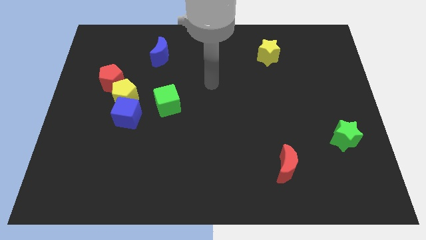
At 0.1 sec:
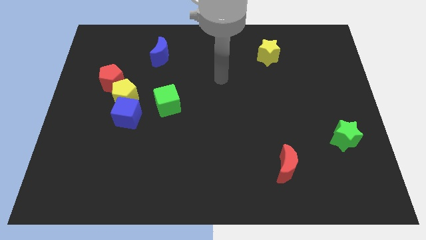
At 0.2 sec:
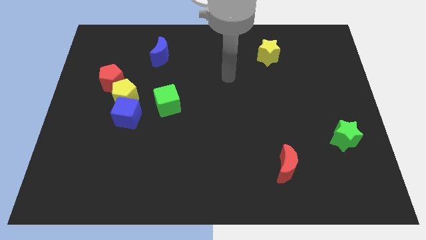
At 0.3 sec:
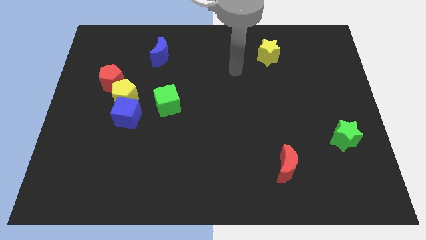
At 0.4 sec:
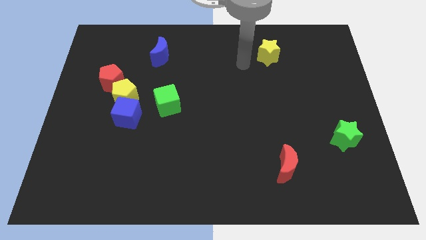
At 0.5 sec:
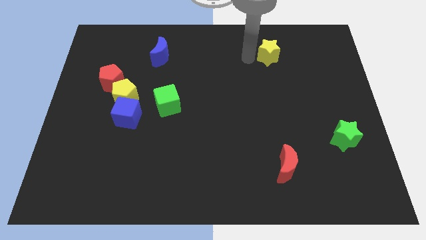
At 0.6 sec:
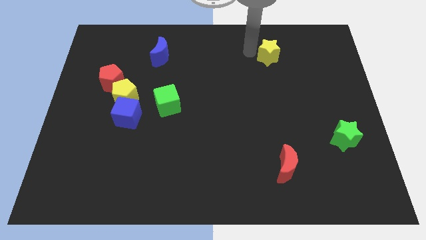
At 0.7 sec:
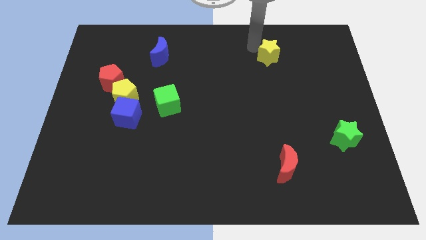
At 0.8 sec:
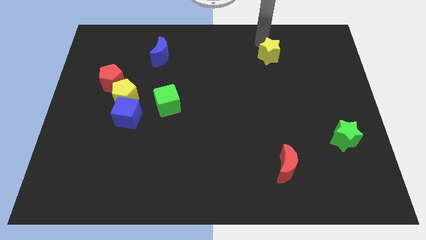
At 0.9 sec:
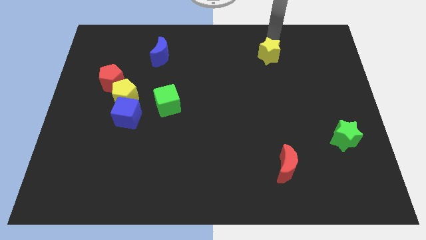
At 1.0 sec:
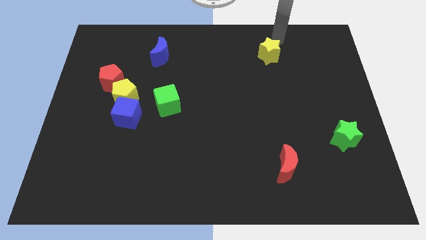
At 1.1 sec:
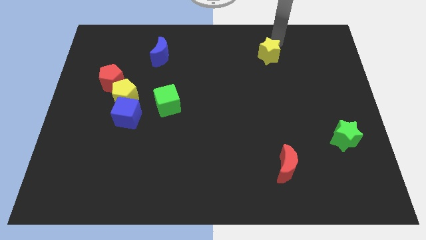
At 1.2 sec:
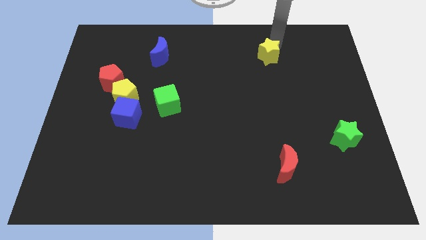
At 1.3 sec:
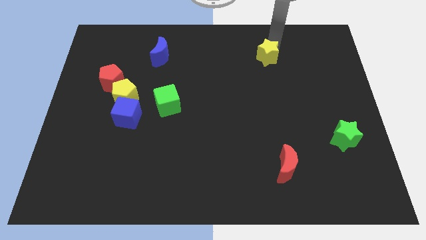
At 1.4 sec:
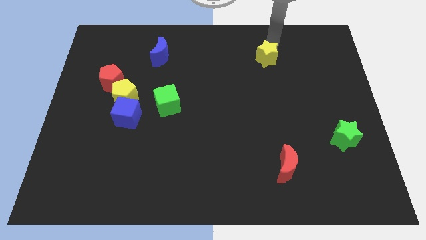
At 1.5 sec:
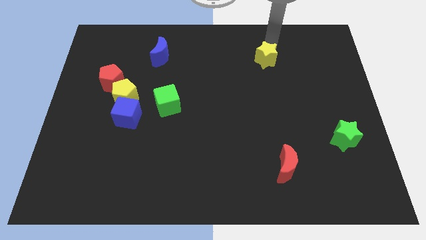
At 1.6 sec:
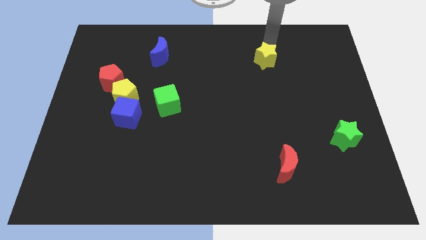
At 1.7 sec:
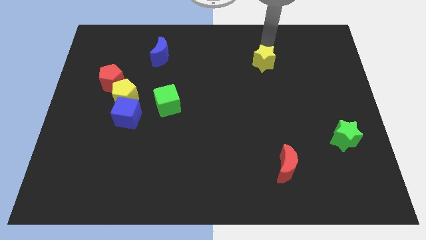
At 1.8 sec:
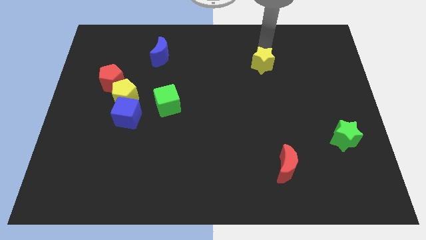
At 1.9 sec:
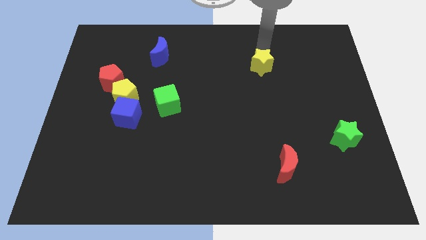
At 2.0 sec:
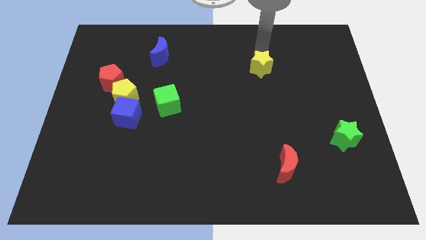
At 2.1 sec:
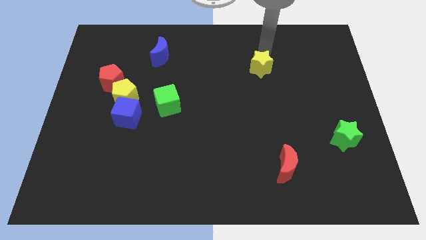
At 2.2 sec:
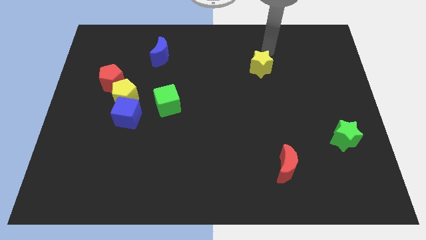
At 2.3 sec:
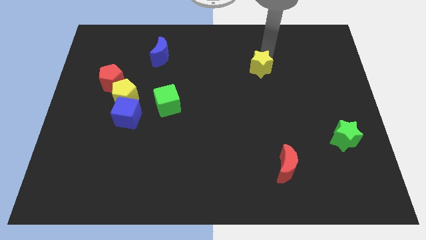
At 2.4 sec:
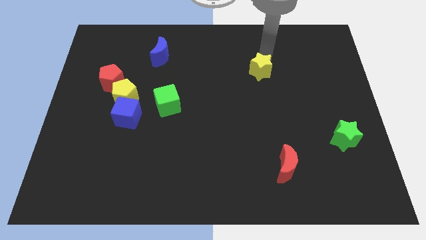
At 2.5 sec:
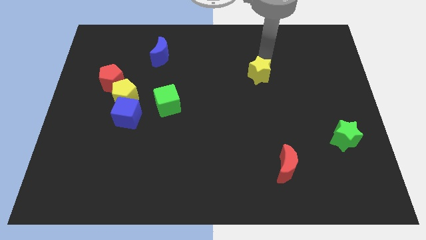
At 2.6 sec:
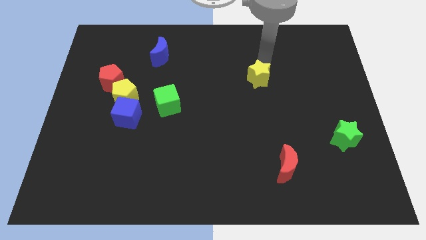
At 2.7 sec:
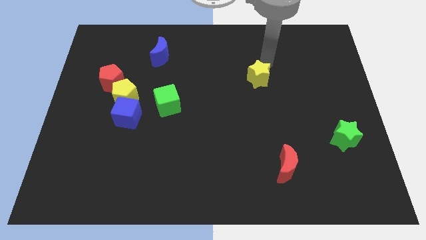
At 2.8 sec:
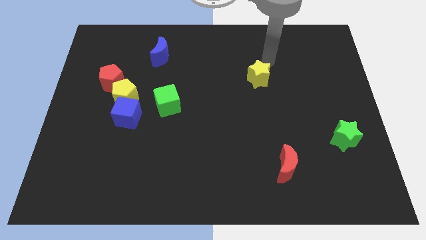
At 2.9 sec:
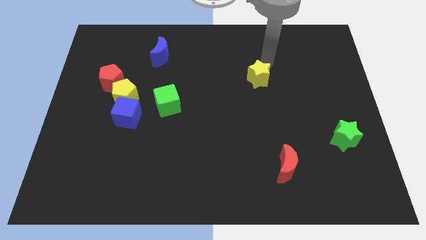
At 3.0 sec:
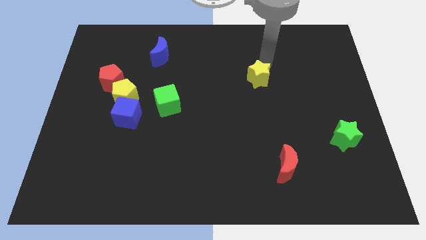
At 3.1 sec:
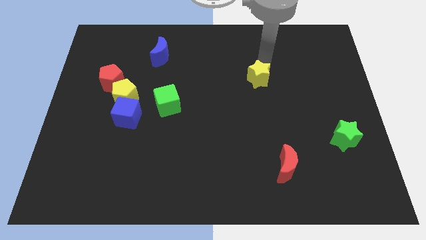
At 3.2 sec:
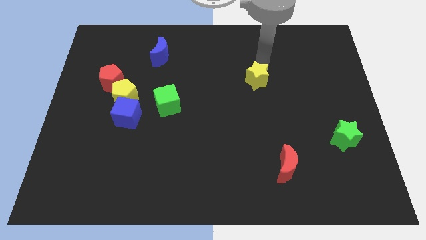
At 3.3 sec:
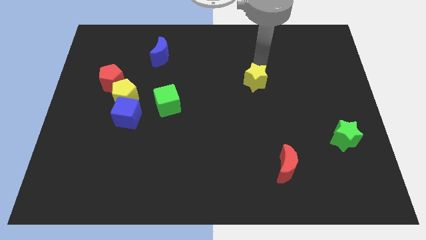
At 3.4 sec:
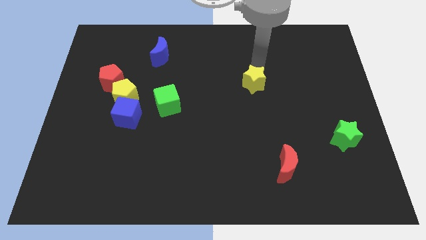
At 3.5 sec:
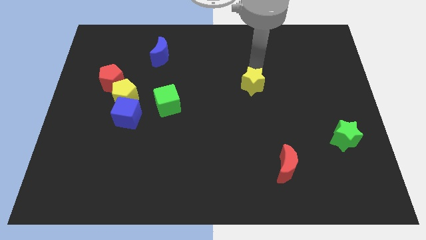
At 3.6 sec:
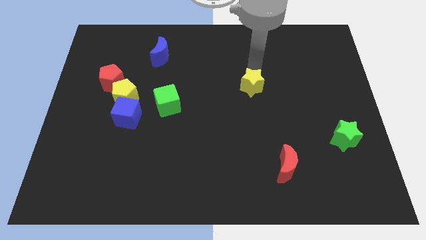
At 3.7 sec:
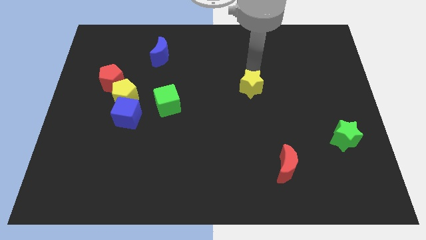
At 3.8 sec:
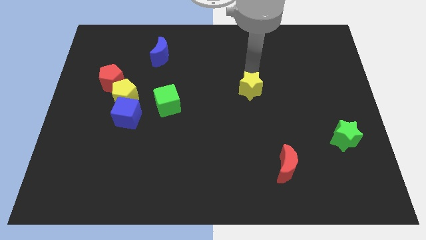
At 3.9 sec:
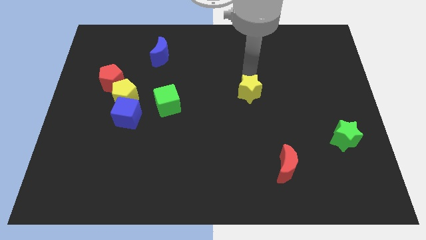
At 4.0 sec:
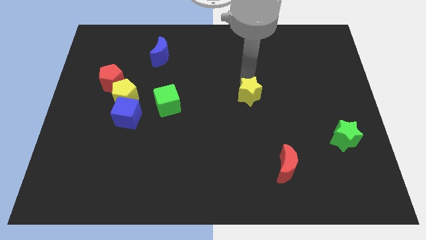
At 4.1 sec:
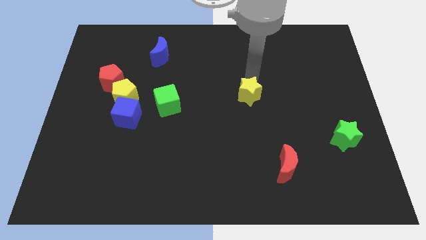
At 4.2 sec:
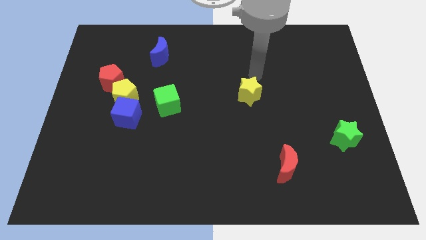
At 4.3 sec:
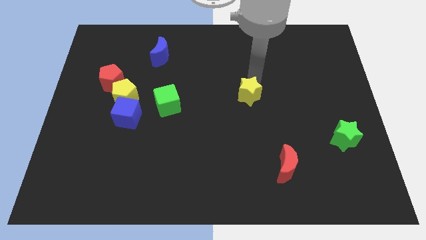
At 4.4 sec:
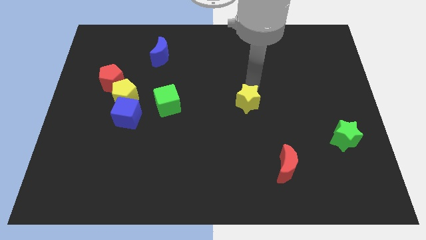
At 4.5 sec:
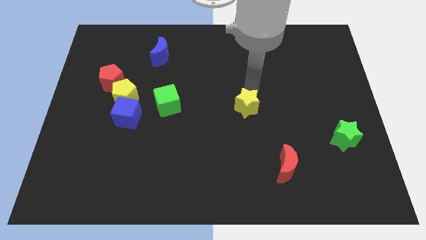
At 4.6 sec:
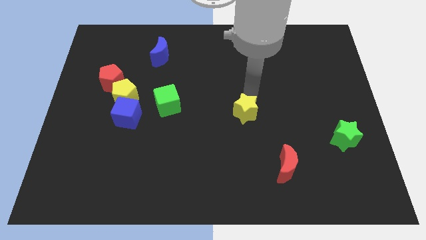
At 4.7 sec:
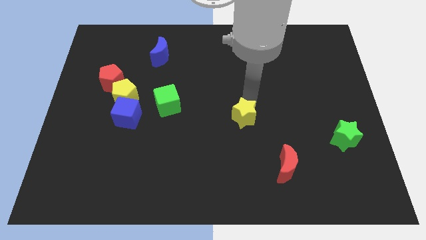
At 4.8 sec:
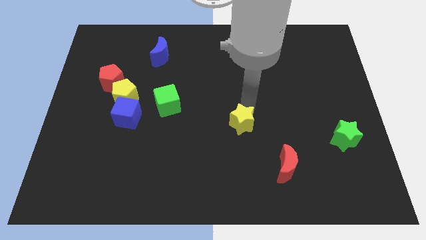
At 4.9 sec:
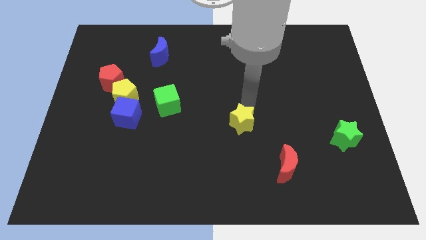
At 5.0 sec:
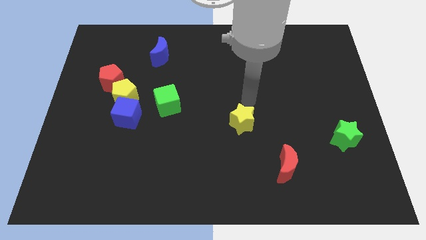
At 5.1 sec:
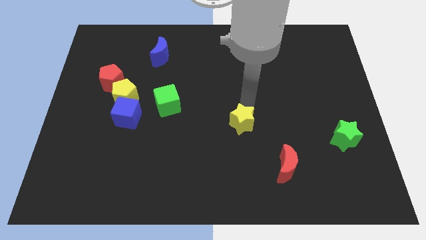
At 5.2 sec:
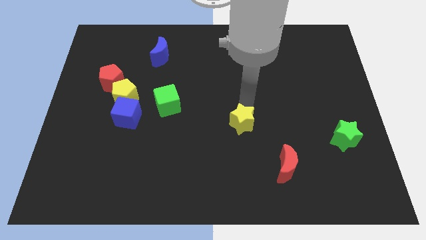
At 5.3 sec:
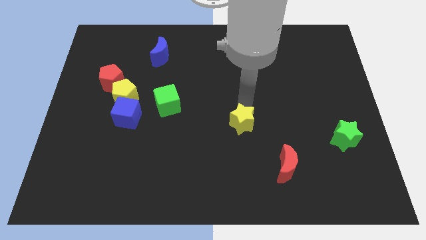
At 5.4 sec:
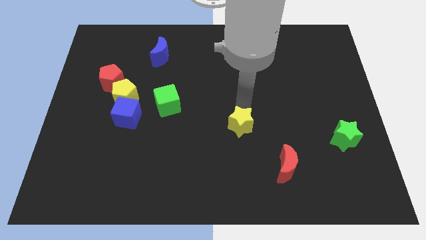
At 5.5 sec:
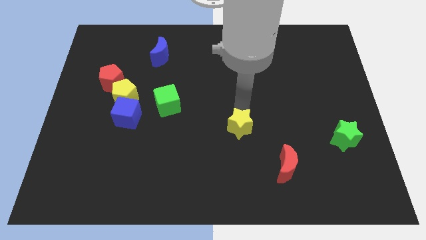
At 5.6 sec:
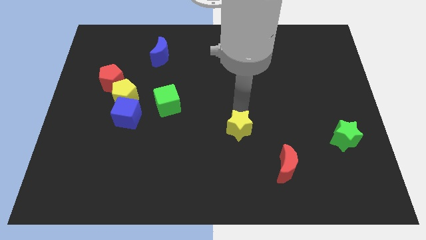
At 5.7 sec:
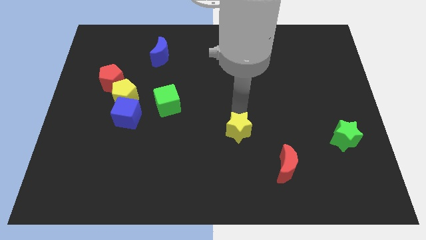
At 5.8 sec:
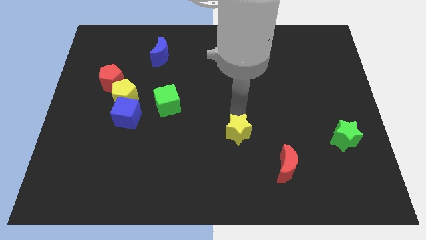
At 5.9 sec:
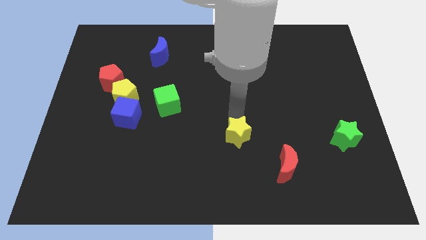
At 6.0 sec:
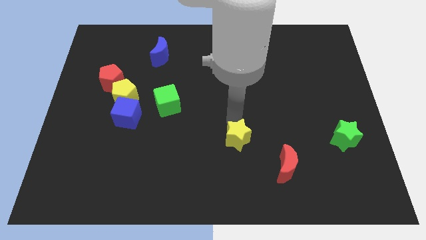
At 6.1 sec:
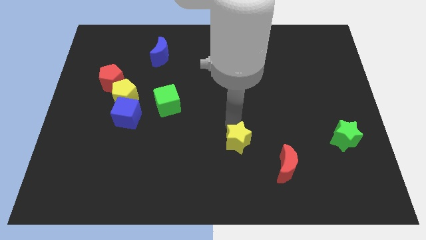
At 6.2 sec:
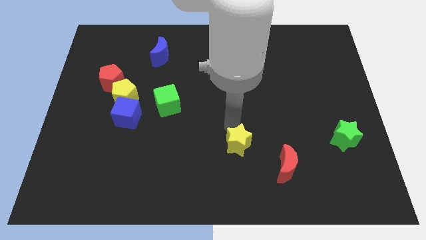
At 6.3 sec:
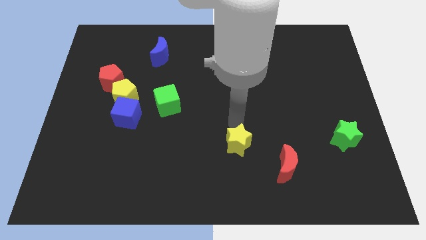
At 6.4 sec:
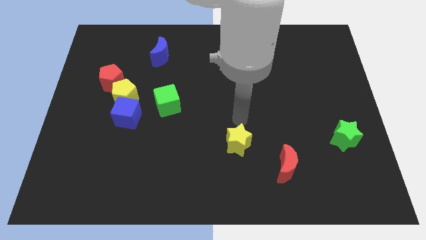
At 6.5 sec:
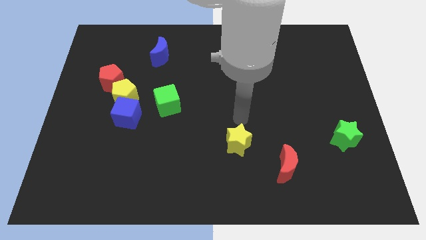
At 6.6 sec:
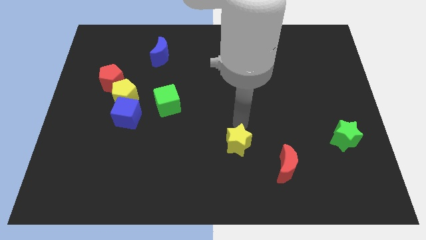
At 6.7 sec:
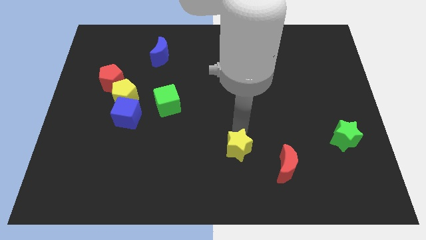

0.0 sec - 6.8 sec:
slide the yellow star left of the red moon

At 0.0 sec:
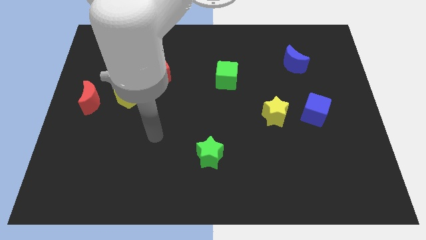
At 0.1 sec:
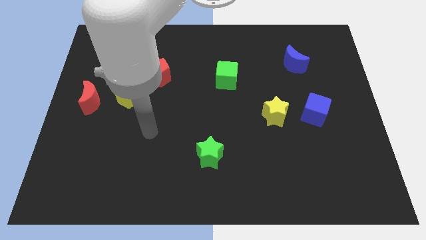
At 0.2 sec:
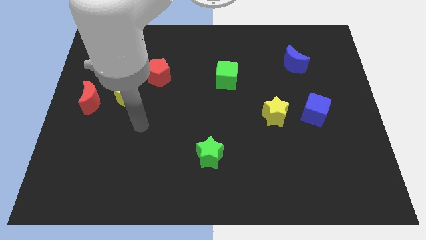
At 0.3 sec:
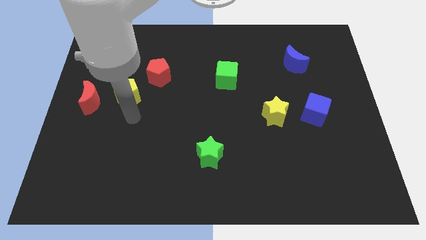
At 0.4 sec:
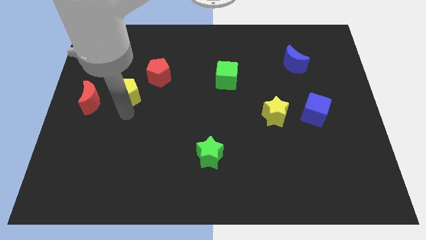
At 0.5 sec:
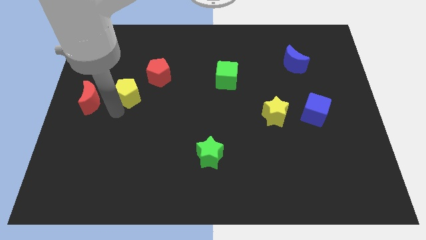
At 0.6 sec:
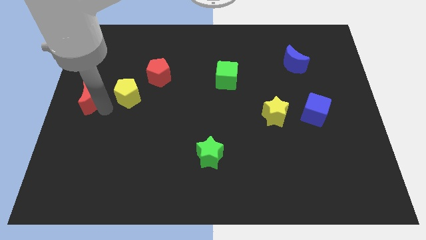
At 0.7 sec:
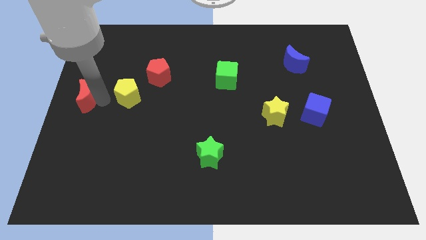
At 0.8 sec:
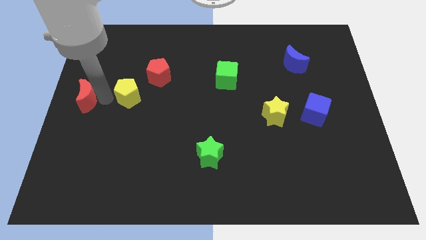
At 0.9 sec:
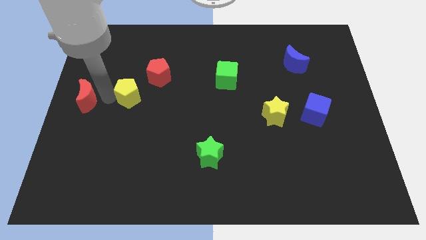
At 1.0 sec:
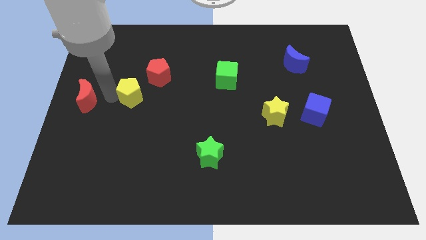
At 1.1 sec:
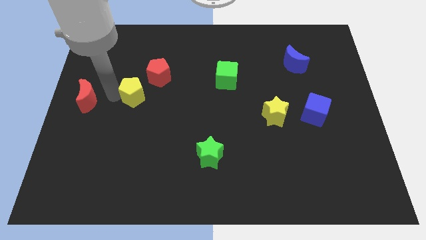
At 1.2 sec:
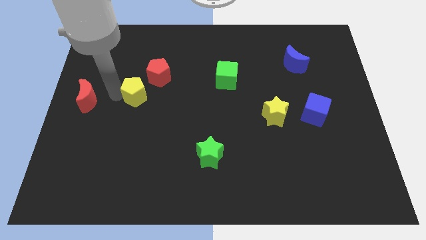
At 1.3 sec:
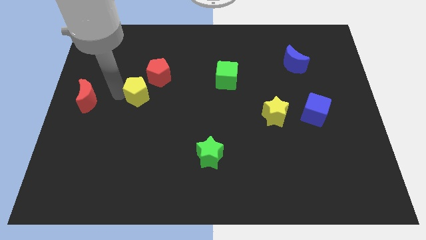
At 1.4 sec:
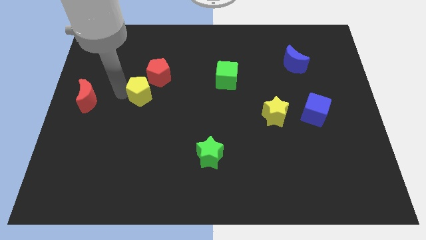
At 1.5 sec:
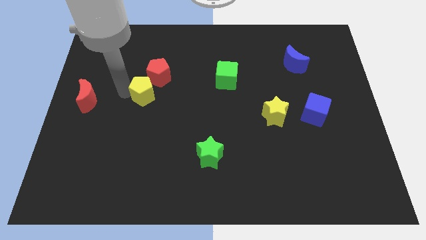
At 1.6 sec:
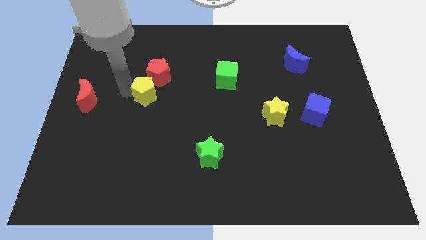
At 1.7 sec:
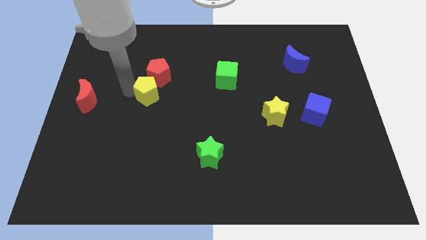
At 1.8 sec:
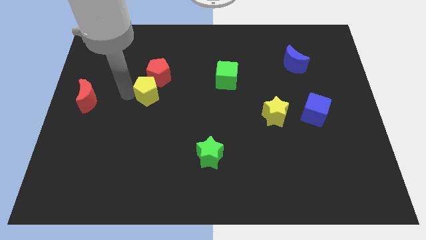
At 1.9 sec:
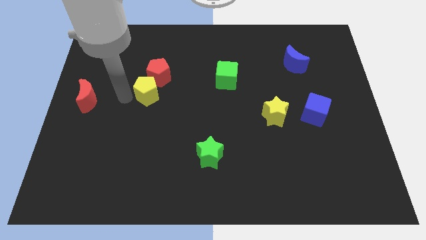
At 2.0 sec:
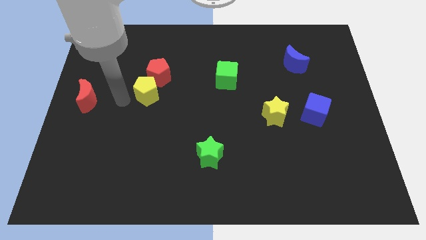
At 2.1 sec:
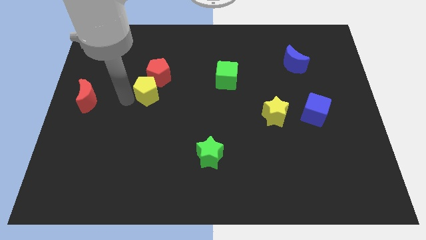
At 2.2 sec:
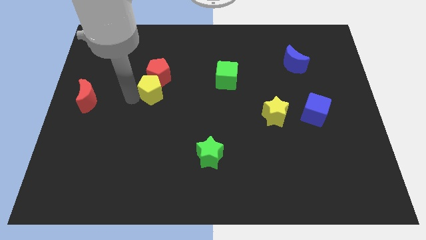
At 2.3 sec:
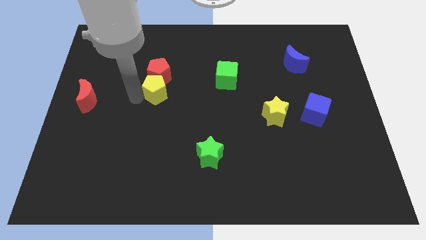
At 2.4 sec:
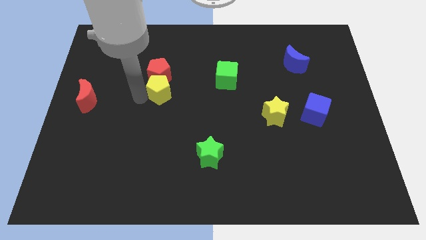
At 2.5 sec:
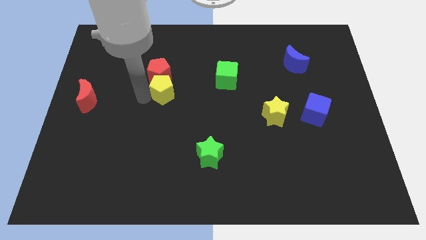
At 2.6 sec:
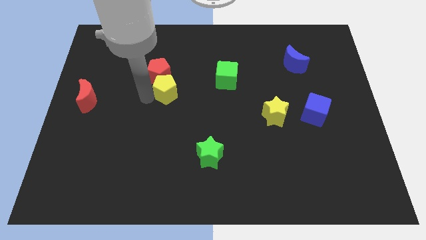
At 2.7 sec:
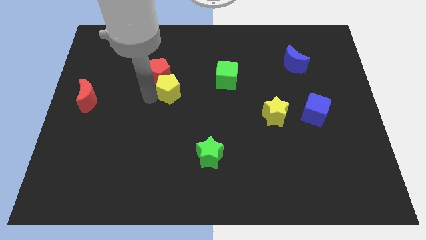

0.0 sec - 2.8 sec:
push the yellow pentagon just left of the green cube
